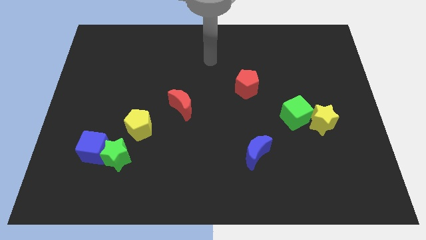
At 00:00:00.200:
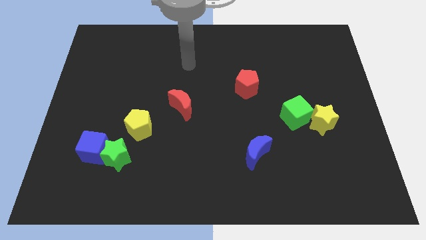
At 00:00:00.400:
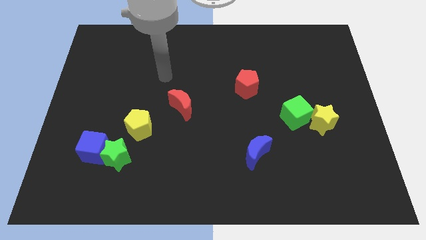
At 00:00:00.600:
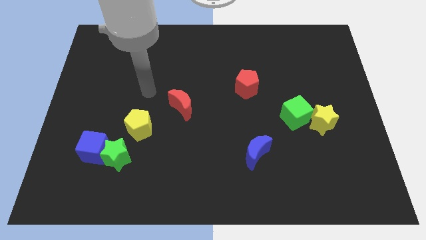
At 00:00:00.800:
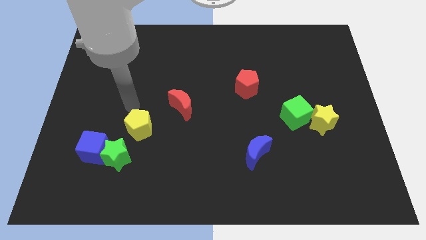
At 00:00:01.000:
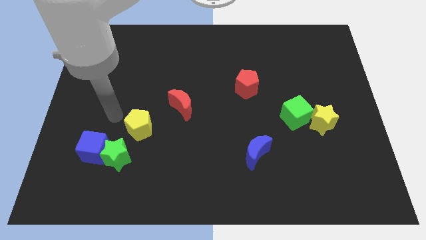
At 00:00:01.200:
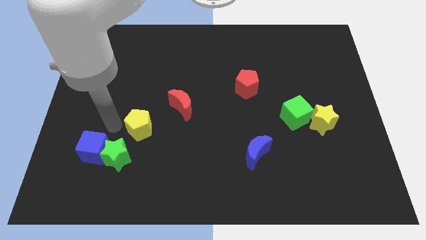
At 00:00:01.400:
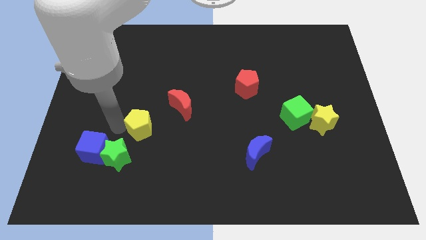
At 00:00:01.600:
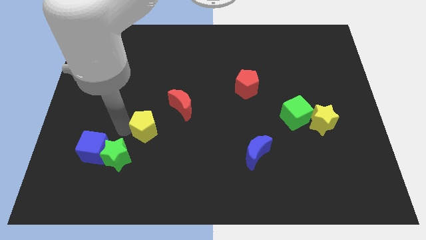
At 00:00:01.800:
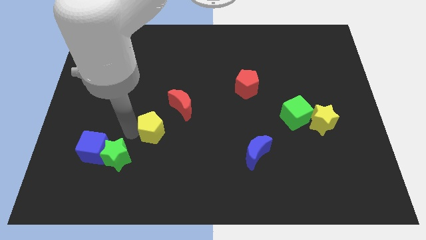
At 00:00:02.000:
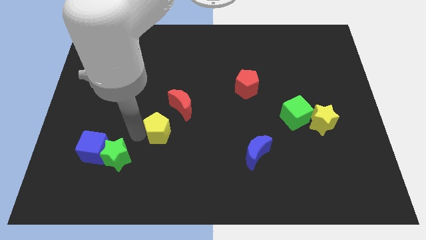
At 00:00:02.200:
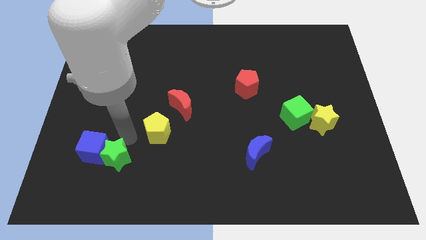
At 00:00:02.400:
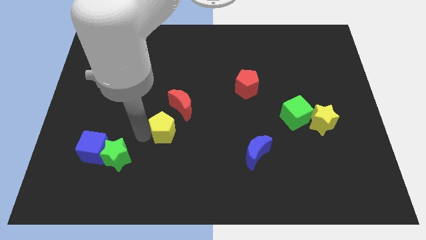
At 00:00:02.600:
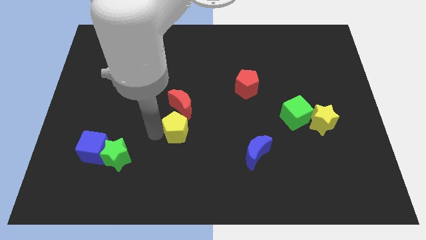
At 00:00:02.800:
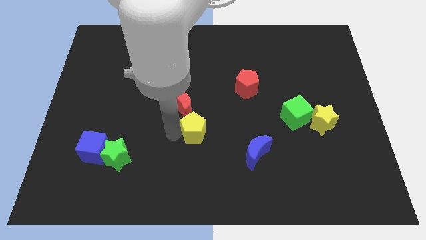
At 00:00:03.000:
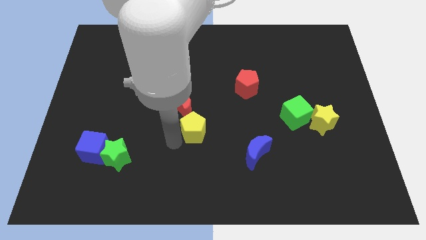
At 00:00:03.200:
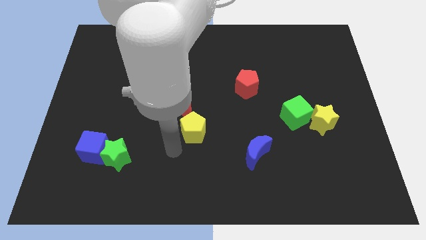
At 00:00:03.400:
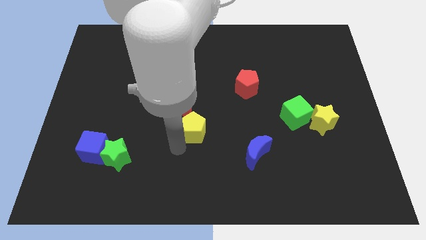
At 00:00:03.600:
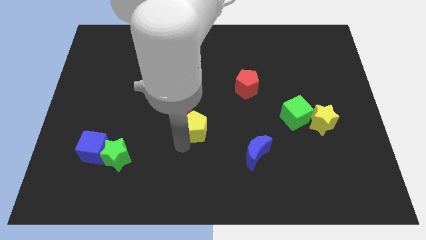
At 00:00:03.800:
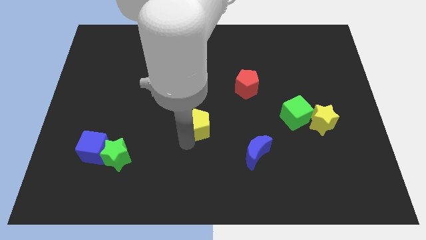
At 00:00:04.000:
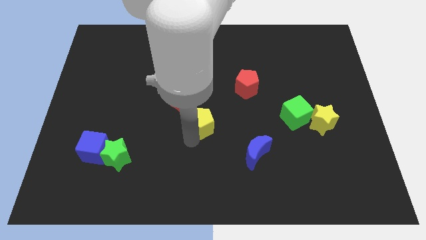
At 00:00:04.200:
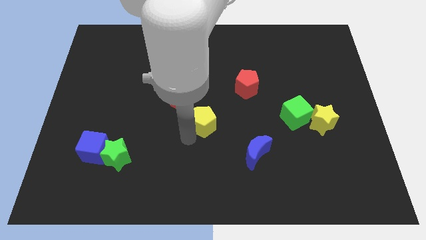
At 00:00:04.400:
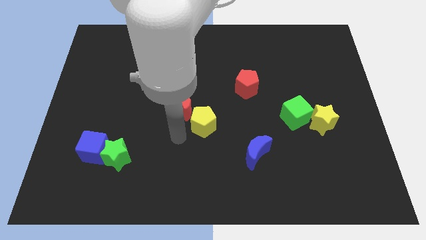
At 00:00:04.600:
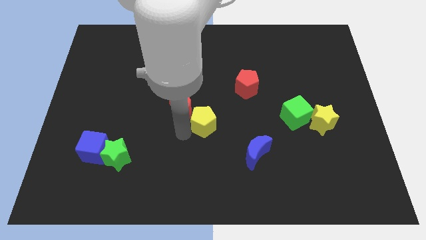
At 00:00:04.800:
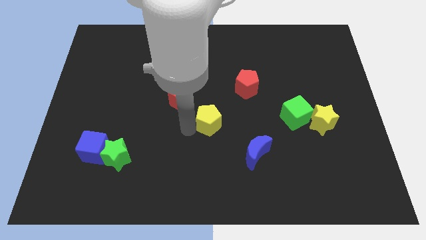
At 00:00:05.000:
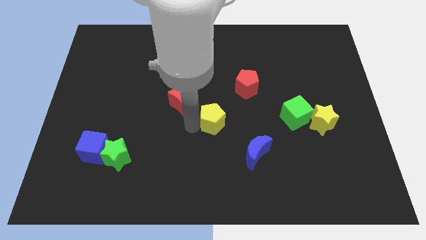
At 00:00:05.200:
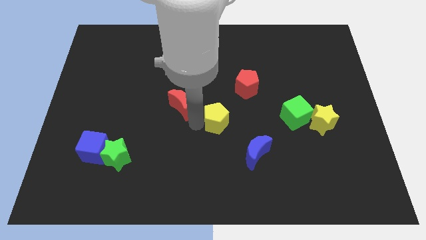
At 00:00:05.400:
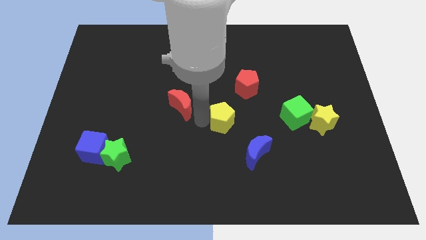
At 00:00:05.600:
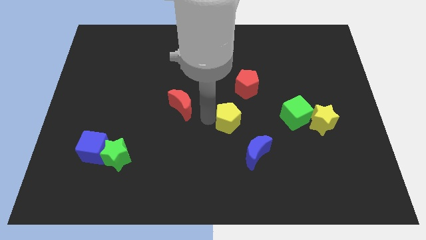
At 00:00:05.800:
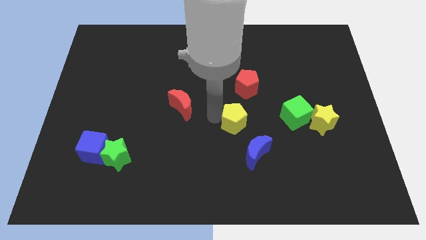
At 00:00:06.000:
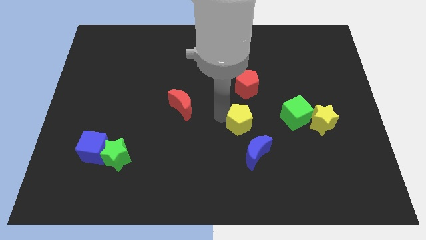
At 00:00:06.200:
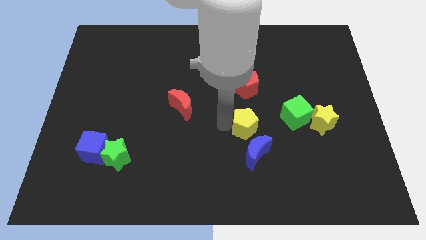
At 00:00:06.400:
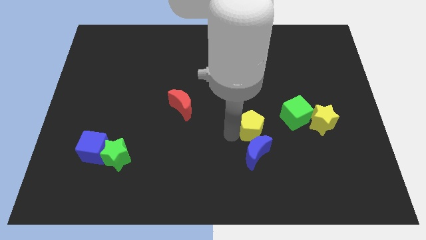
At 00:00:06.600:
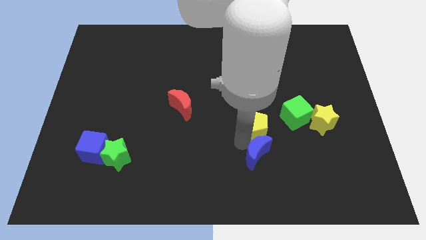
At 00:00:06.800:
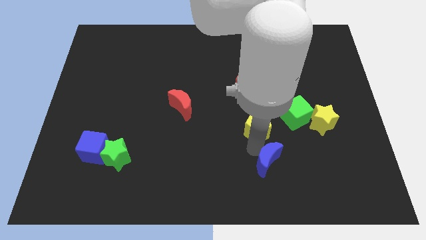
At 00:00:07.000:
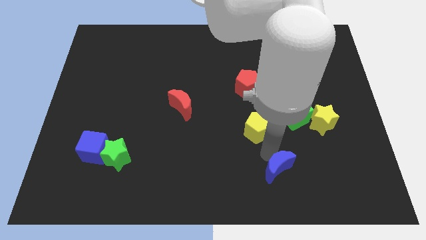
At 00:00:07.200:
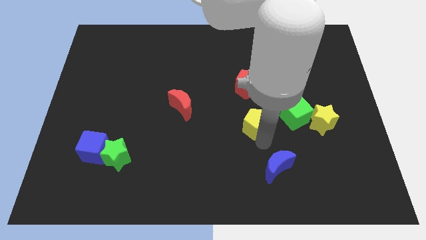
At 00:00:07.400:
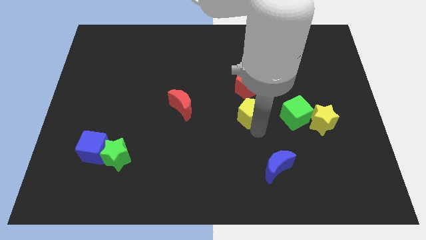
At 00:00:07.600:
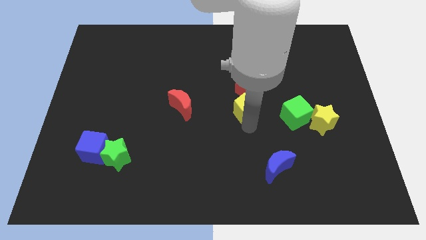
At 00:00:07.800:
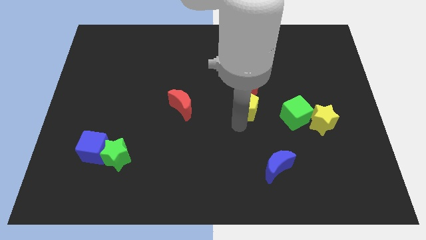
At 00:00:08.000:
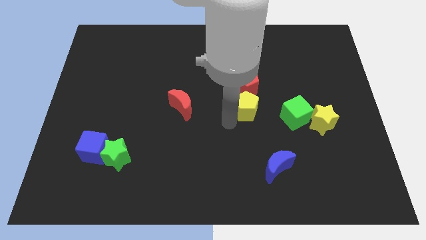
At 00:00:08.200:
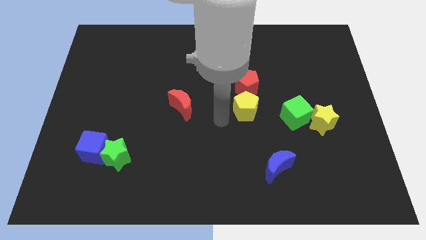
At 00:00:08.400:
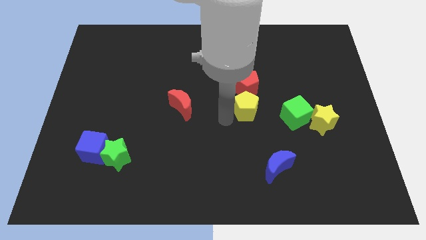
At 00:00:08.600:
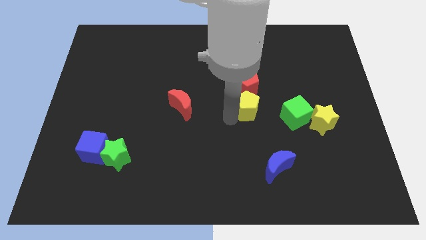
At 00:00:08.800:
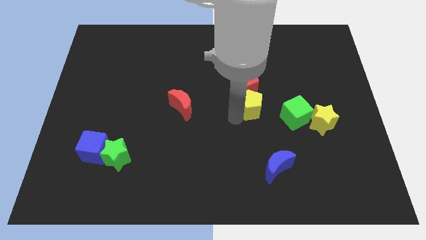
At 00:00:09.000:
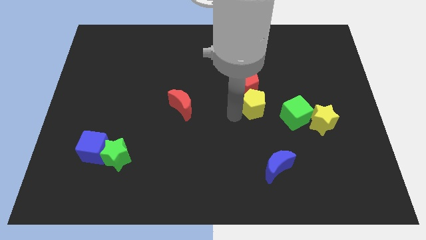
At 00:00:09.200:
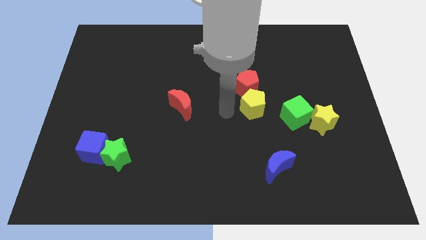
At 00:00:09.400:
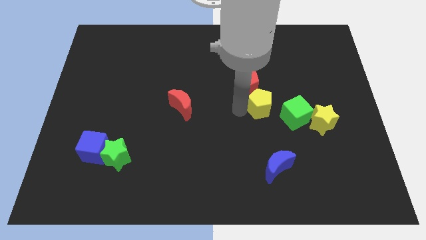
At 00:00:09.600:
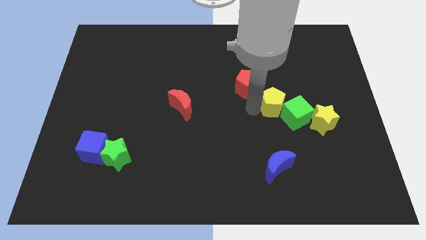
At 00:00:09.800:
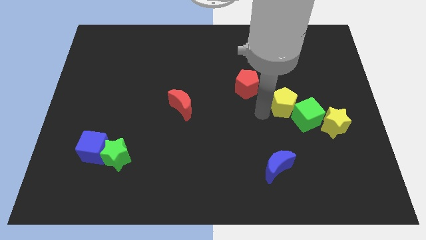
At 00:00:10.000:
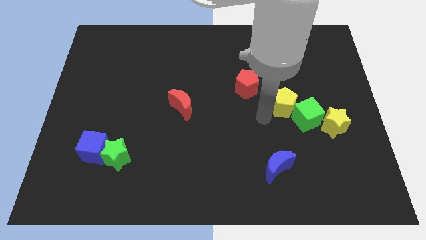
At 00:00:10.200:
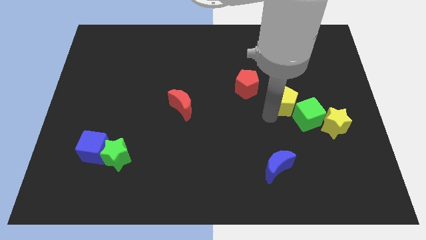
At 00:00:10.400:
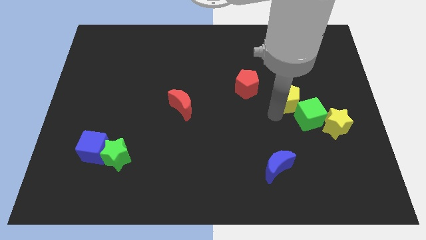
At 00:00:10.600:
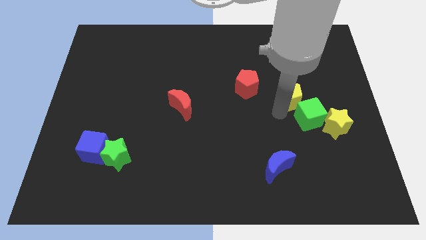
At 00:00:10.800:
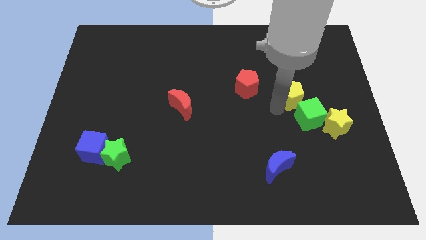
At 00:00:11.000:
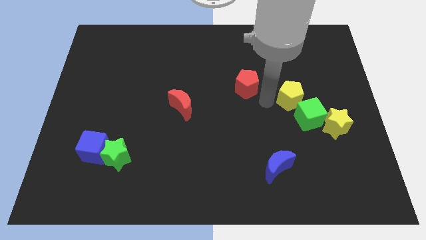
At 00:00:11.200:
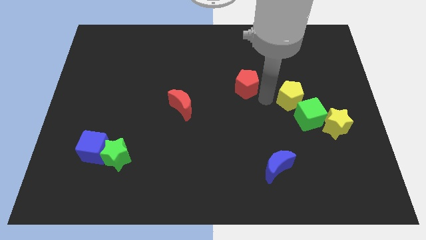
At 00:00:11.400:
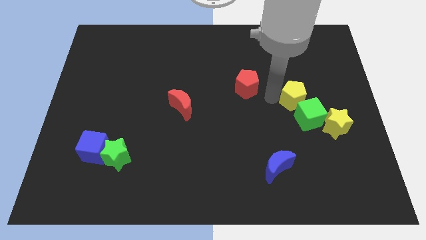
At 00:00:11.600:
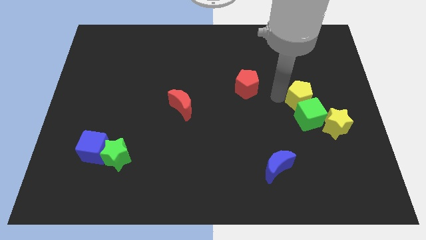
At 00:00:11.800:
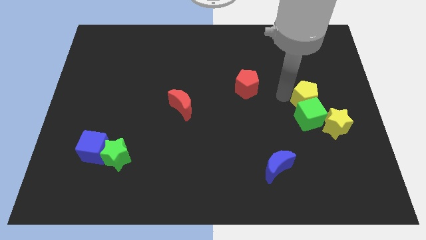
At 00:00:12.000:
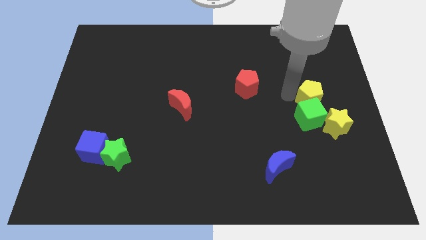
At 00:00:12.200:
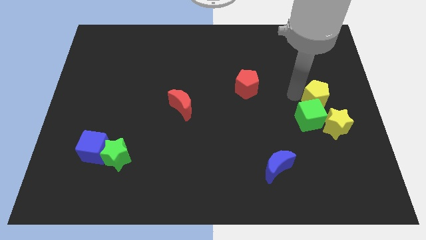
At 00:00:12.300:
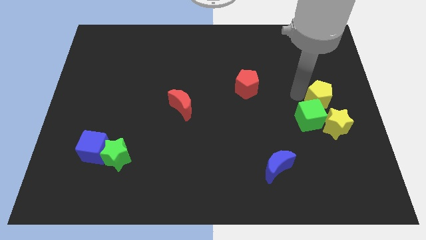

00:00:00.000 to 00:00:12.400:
put the yellow pentagon to the right side

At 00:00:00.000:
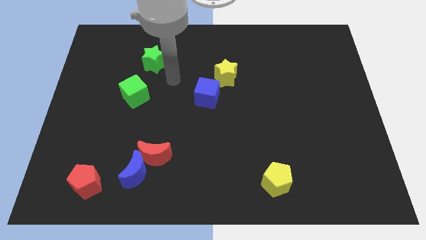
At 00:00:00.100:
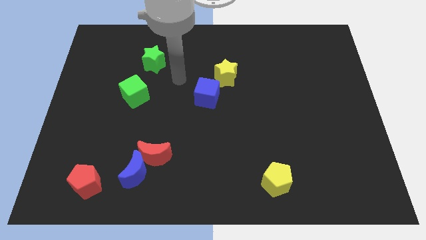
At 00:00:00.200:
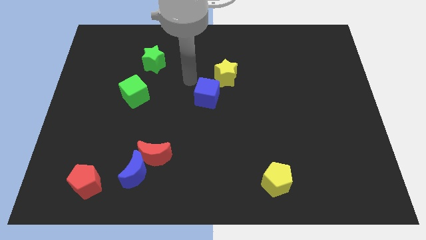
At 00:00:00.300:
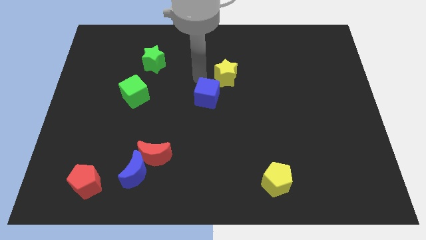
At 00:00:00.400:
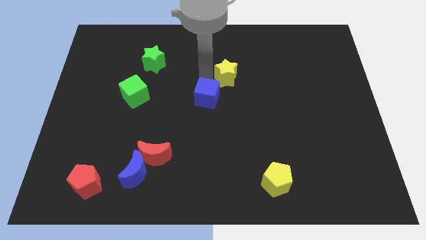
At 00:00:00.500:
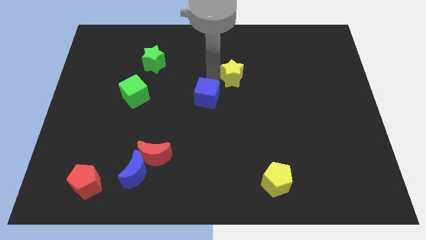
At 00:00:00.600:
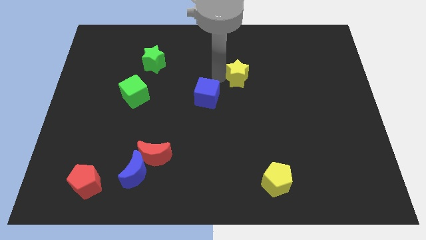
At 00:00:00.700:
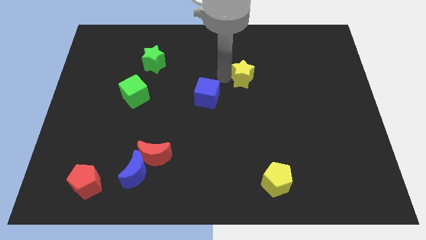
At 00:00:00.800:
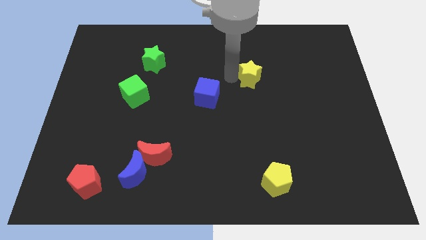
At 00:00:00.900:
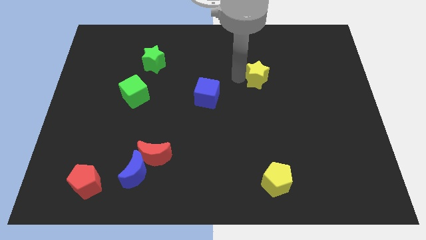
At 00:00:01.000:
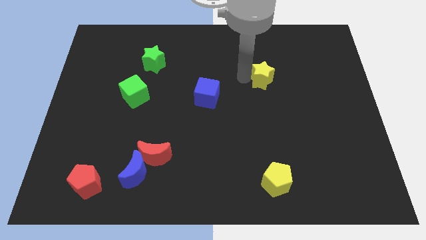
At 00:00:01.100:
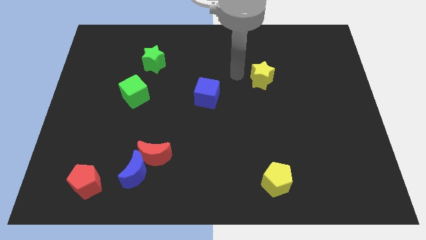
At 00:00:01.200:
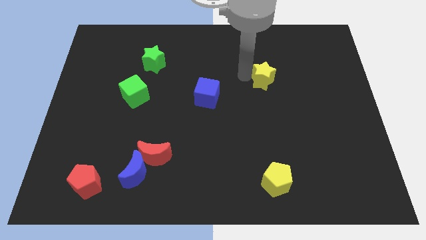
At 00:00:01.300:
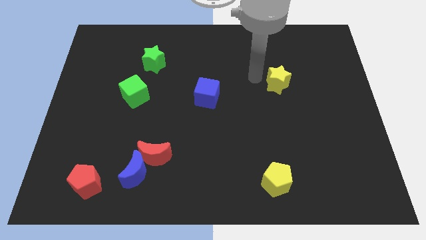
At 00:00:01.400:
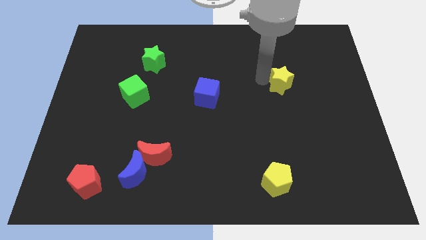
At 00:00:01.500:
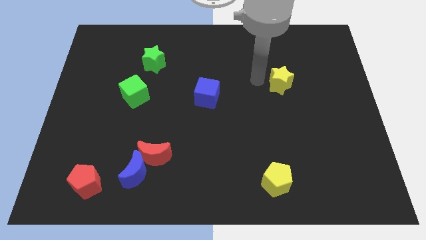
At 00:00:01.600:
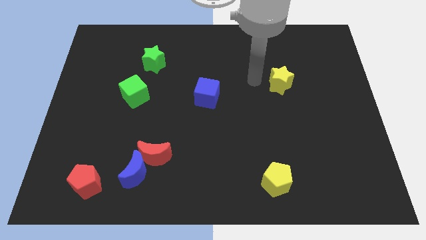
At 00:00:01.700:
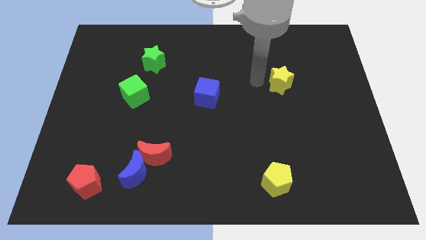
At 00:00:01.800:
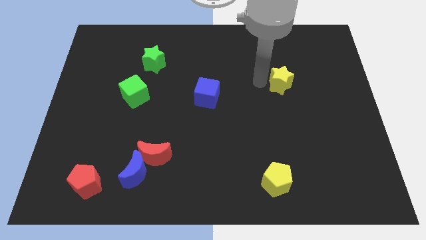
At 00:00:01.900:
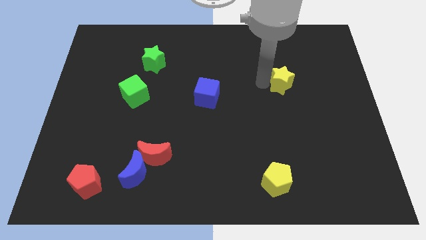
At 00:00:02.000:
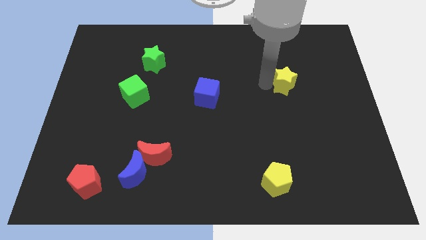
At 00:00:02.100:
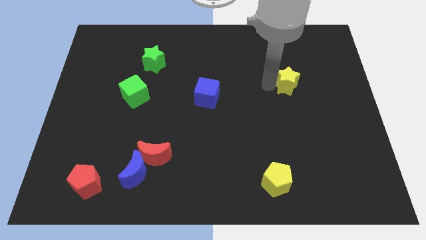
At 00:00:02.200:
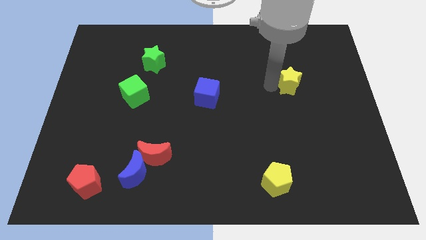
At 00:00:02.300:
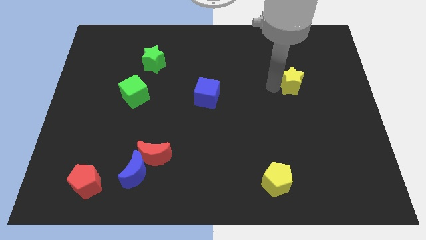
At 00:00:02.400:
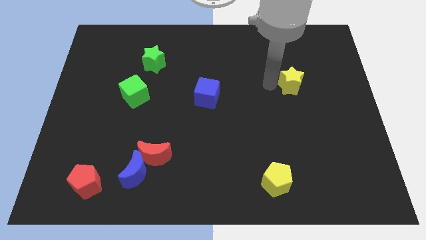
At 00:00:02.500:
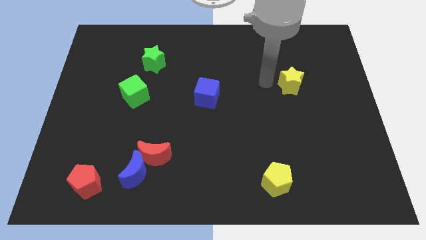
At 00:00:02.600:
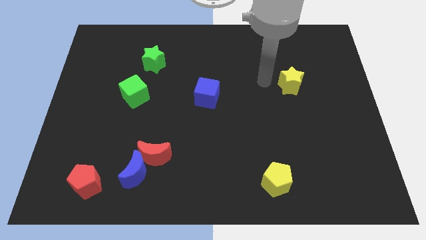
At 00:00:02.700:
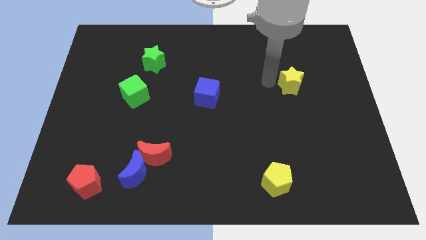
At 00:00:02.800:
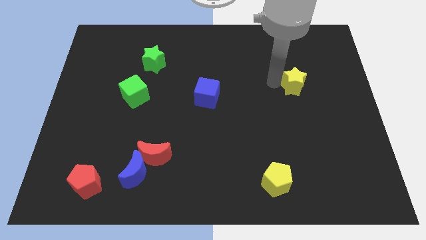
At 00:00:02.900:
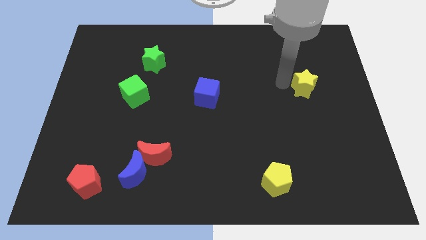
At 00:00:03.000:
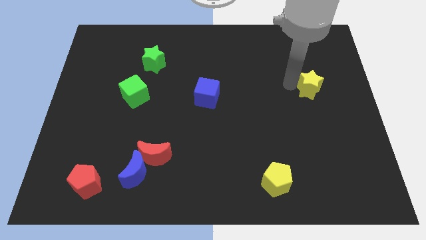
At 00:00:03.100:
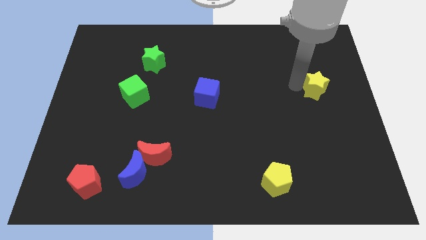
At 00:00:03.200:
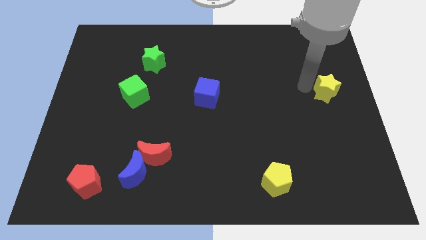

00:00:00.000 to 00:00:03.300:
move the yellow star to the center right
